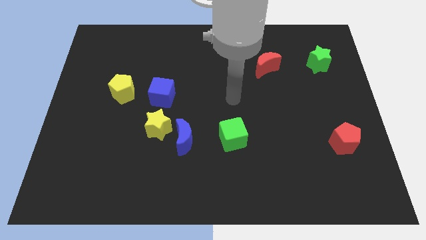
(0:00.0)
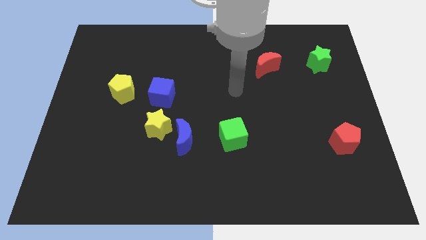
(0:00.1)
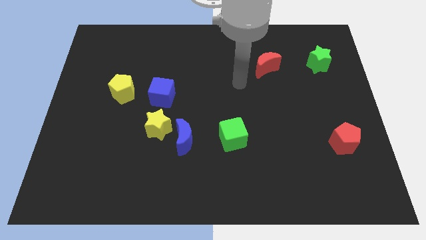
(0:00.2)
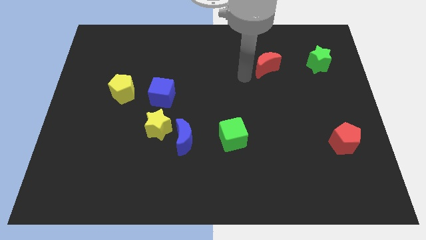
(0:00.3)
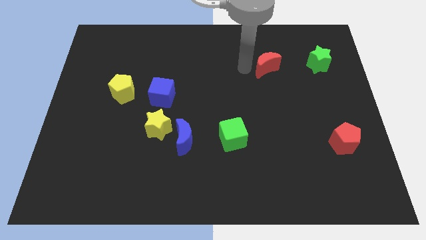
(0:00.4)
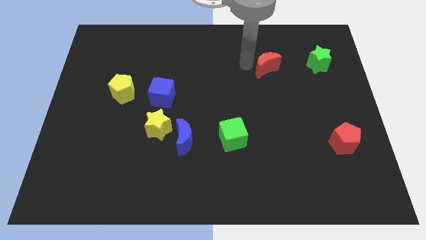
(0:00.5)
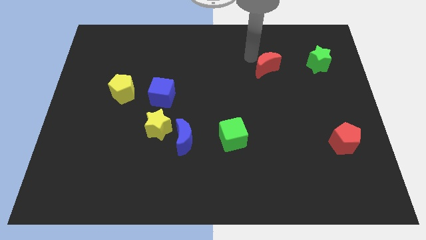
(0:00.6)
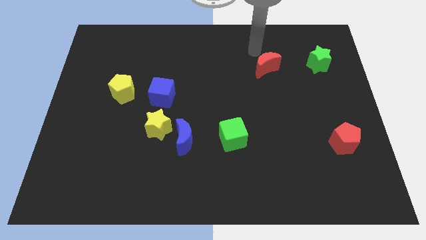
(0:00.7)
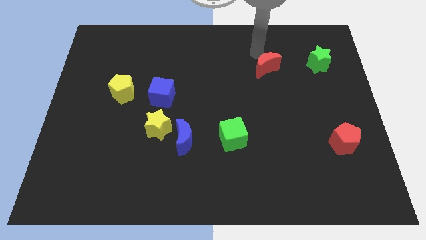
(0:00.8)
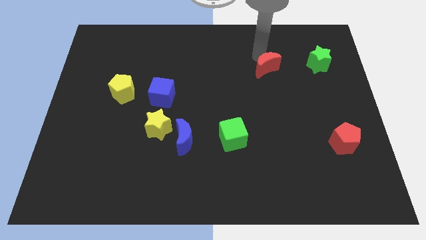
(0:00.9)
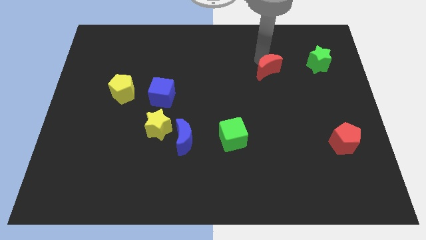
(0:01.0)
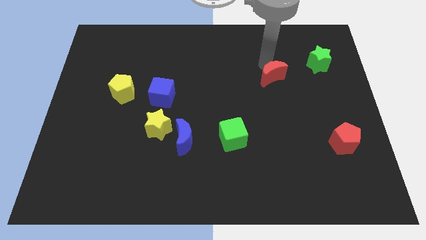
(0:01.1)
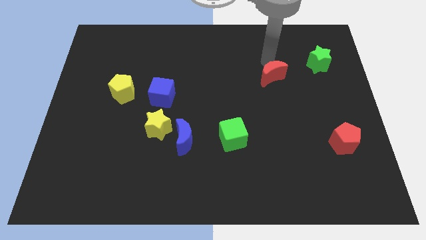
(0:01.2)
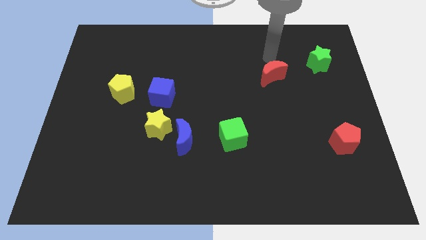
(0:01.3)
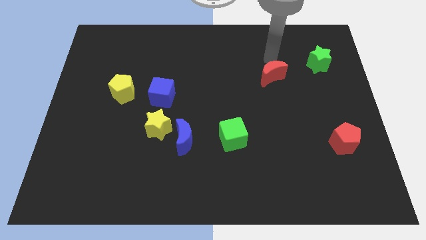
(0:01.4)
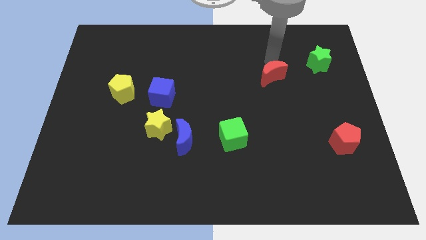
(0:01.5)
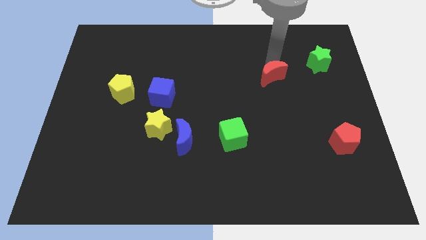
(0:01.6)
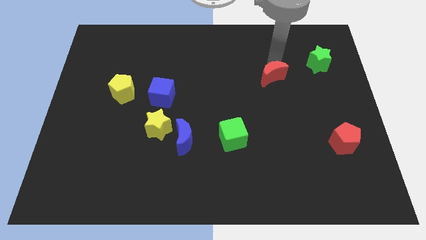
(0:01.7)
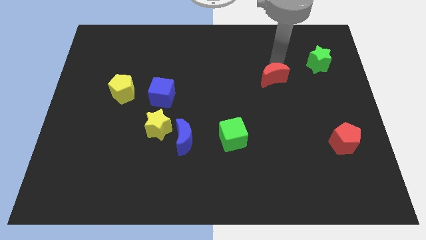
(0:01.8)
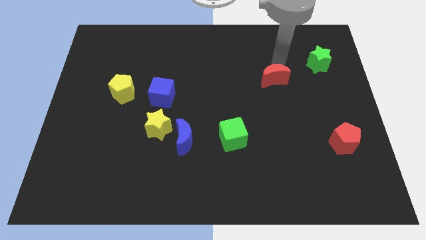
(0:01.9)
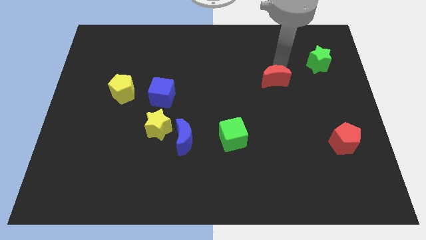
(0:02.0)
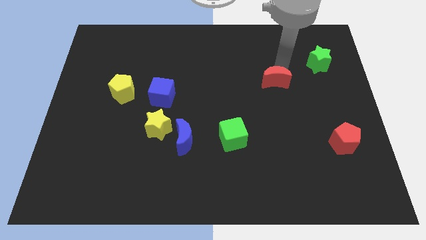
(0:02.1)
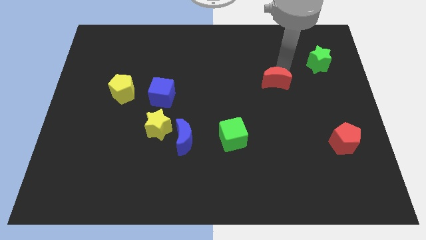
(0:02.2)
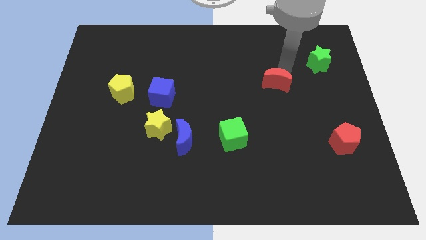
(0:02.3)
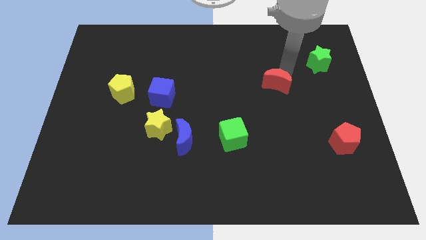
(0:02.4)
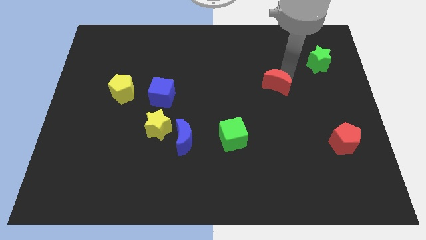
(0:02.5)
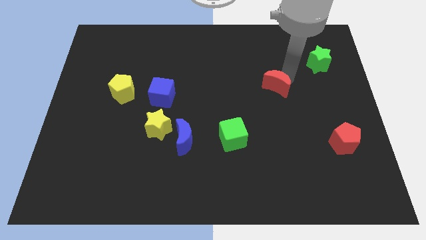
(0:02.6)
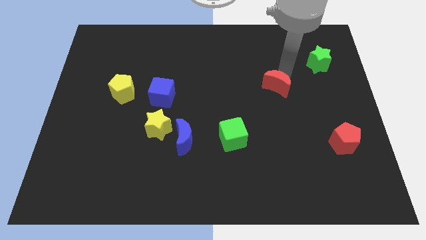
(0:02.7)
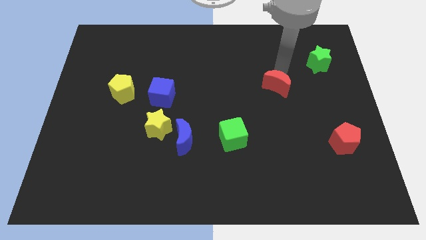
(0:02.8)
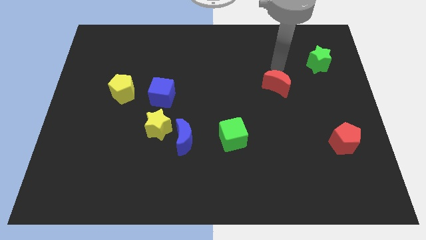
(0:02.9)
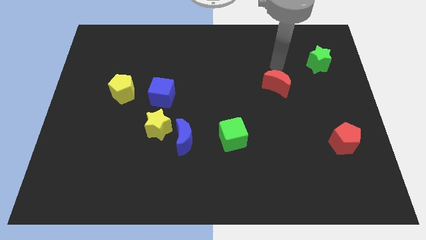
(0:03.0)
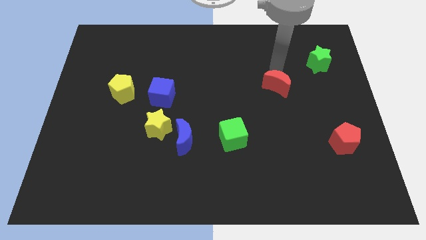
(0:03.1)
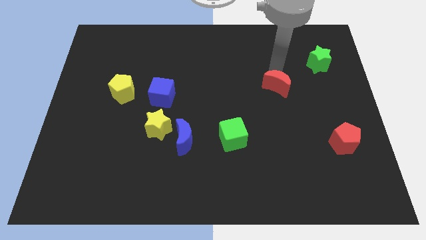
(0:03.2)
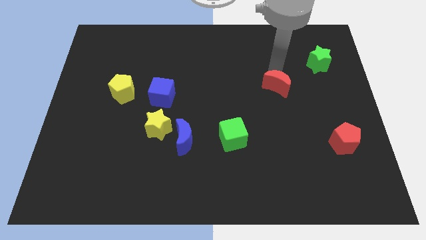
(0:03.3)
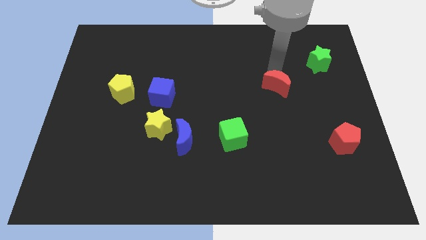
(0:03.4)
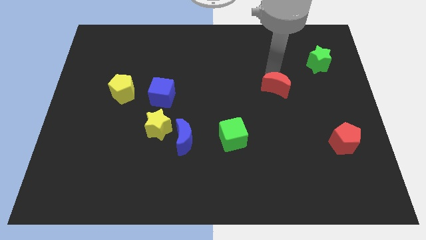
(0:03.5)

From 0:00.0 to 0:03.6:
slightly push the red moon down

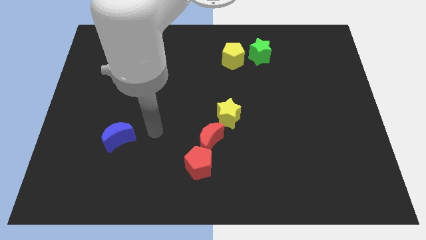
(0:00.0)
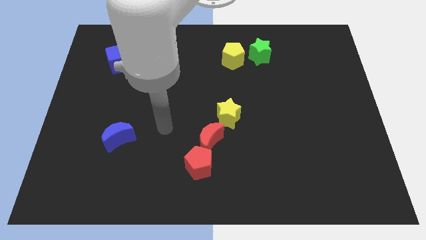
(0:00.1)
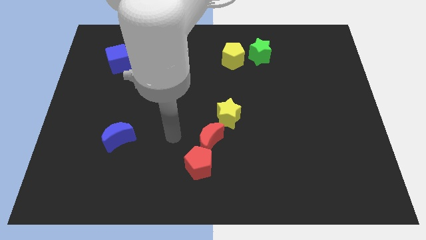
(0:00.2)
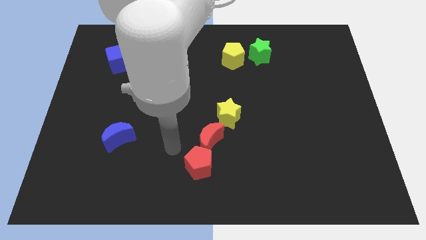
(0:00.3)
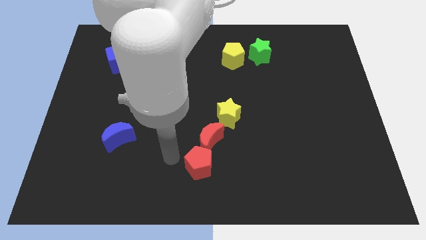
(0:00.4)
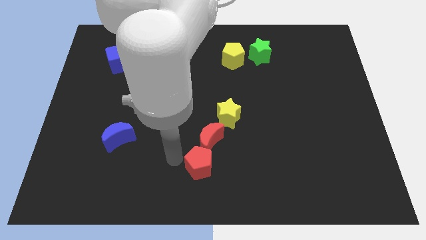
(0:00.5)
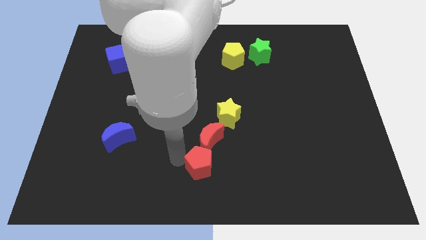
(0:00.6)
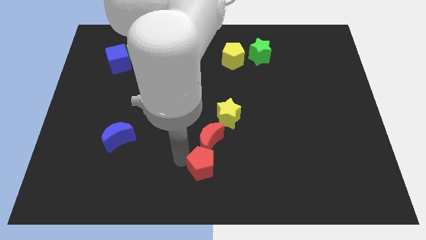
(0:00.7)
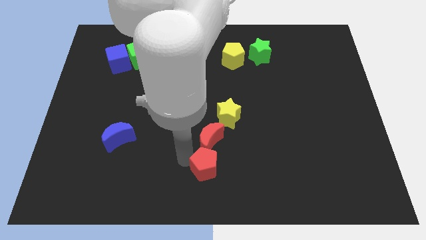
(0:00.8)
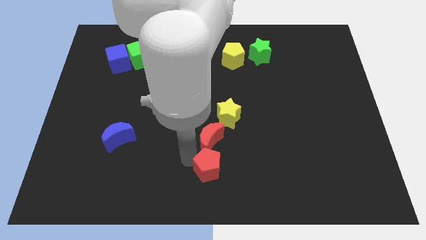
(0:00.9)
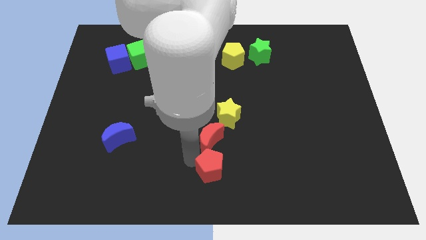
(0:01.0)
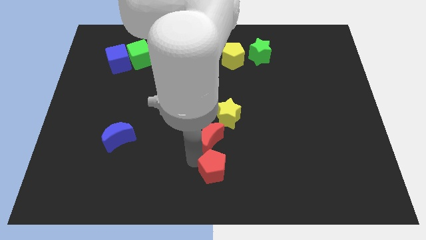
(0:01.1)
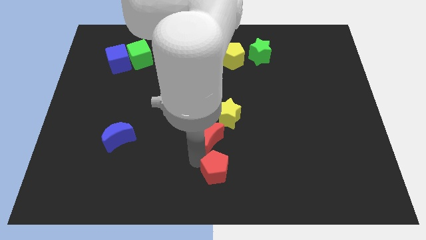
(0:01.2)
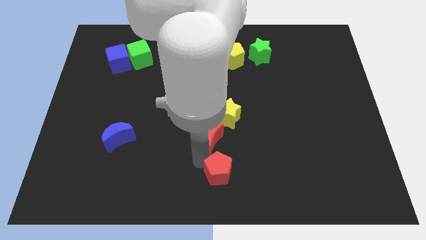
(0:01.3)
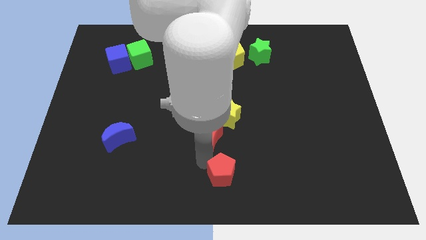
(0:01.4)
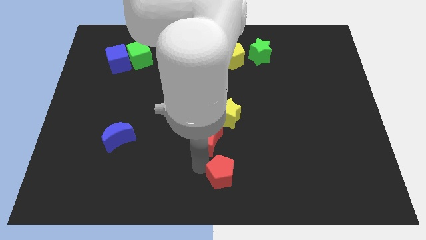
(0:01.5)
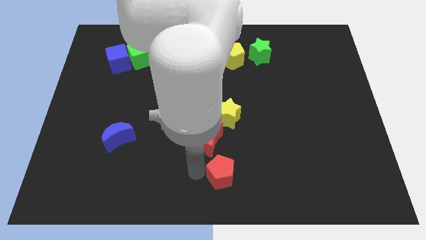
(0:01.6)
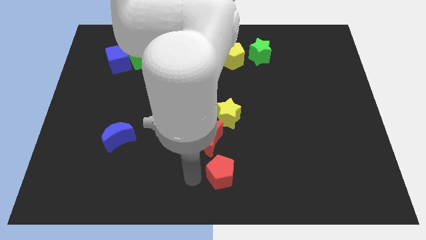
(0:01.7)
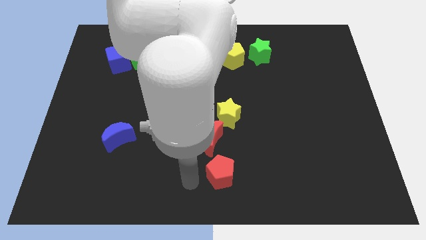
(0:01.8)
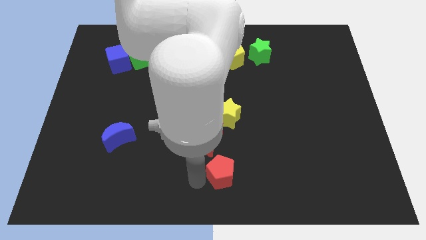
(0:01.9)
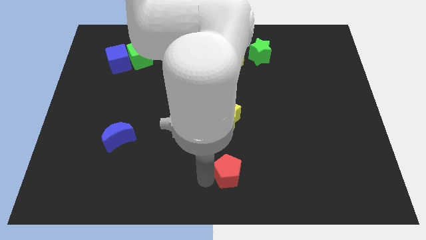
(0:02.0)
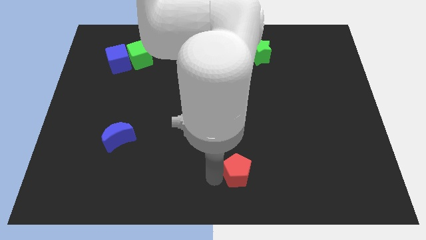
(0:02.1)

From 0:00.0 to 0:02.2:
slightly move the red pentagon to the right

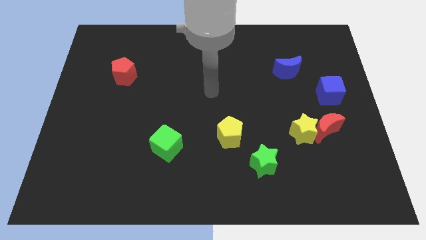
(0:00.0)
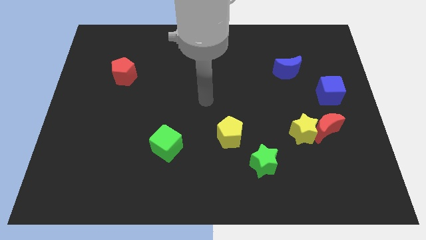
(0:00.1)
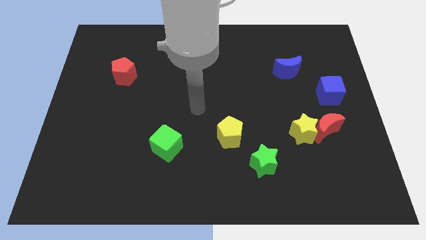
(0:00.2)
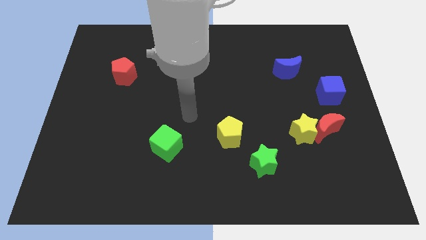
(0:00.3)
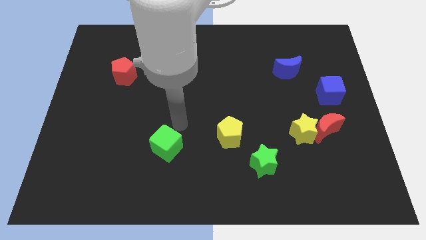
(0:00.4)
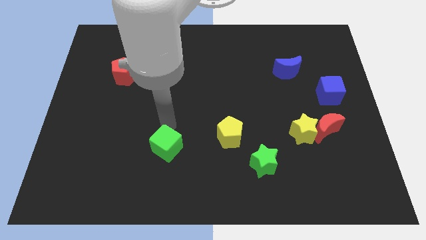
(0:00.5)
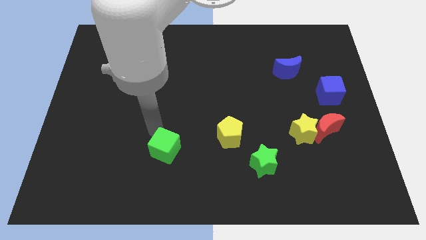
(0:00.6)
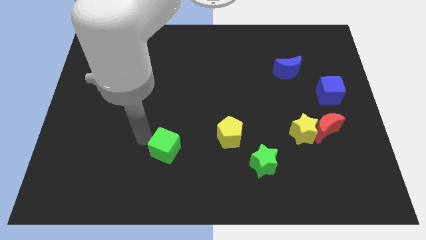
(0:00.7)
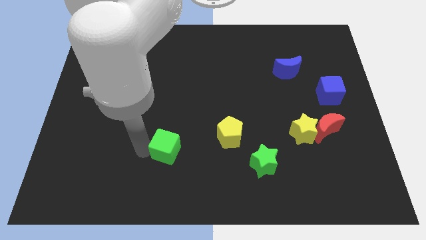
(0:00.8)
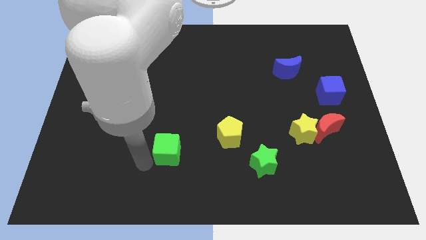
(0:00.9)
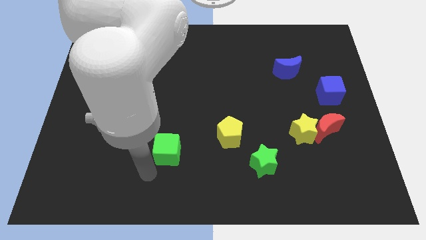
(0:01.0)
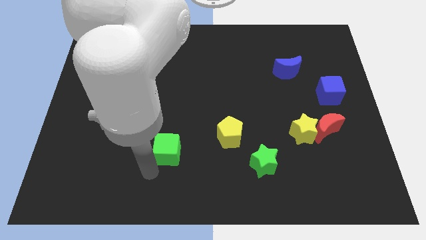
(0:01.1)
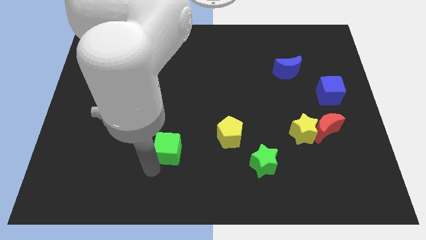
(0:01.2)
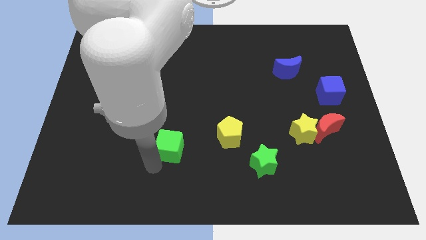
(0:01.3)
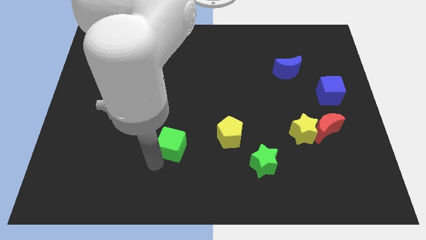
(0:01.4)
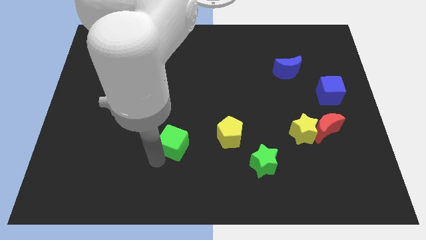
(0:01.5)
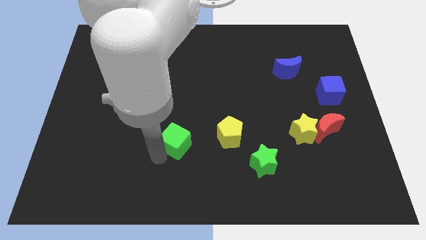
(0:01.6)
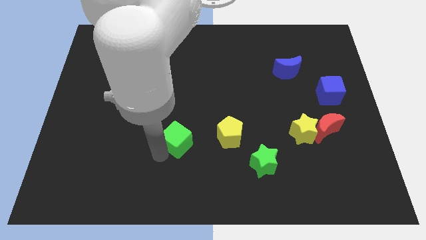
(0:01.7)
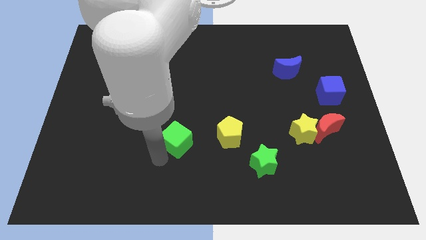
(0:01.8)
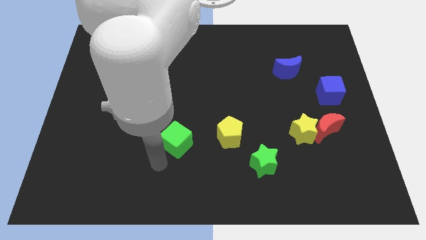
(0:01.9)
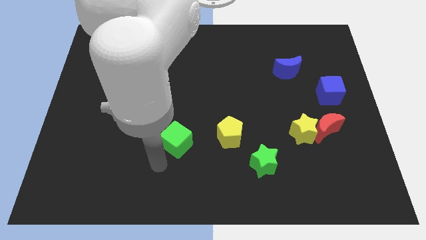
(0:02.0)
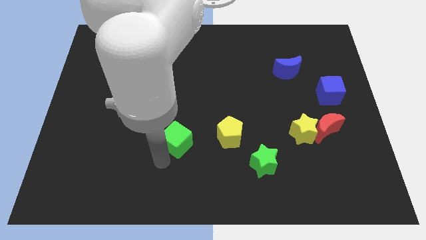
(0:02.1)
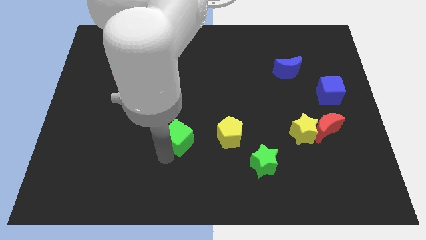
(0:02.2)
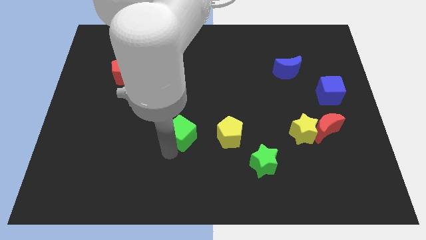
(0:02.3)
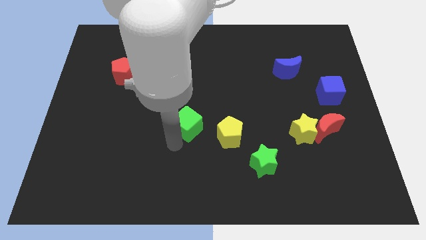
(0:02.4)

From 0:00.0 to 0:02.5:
move the green cube upwards and to the right somewhat
